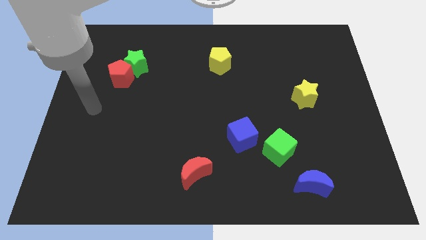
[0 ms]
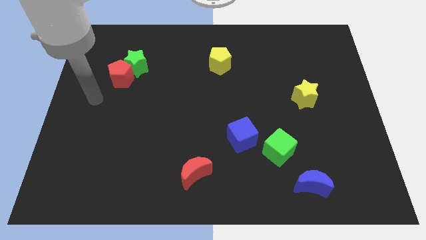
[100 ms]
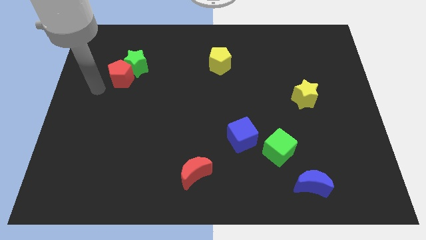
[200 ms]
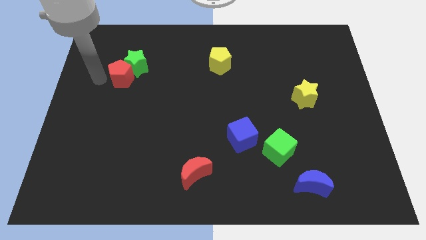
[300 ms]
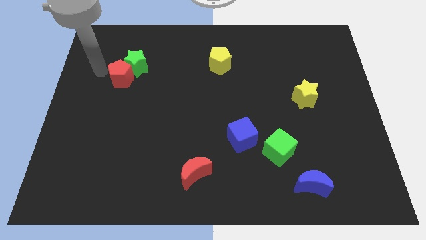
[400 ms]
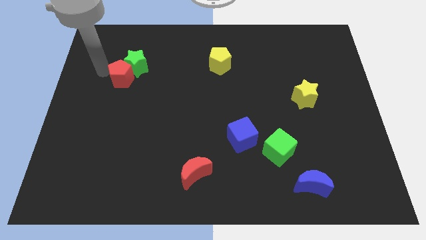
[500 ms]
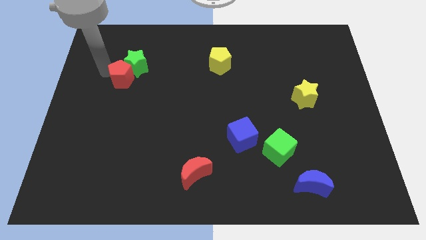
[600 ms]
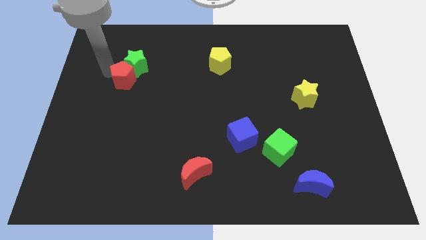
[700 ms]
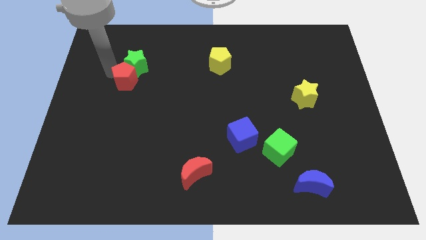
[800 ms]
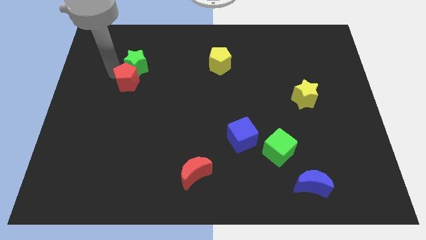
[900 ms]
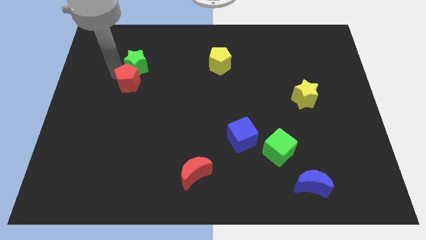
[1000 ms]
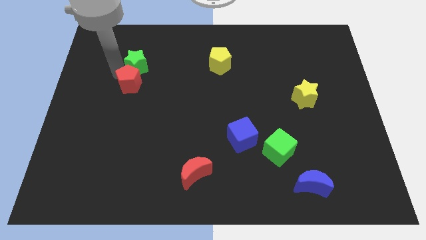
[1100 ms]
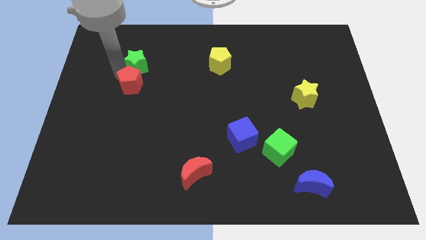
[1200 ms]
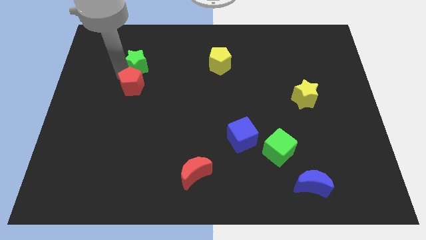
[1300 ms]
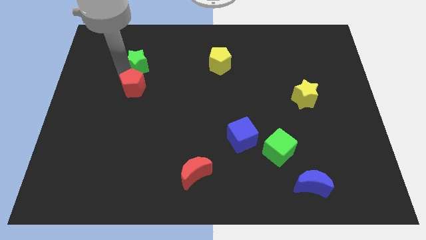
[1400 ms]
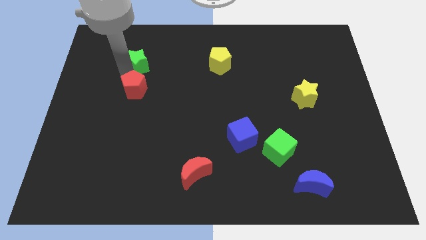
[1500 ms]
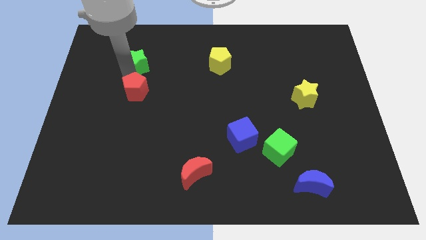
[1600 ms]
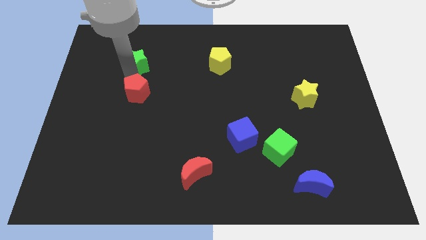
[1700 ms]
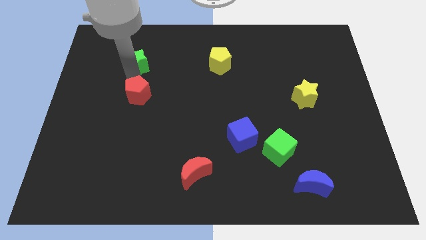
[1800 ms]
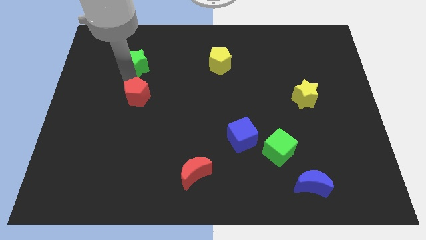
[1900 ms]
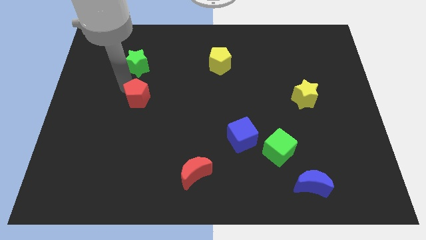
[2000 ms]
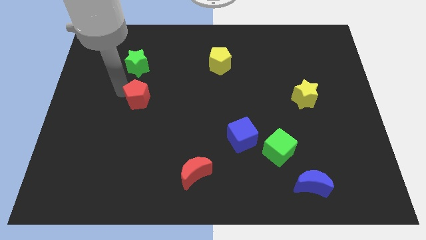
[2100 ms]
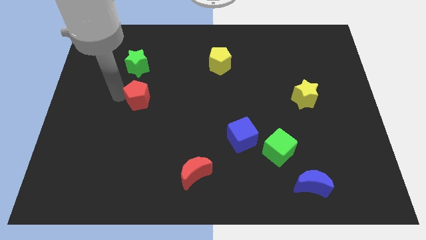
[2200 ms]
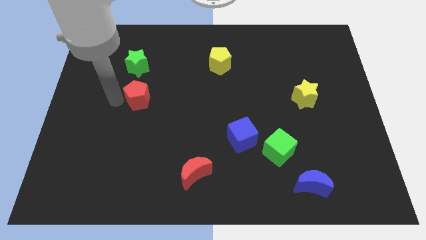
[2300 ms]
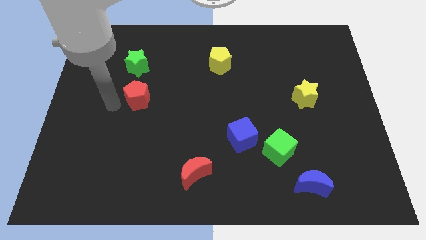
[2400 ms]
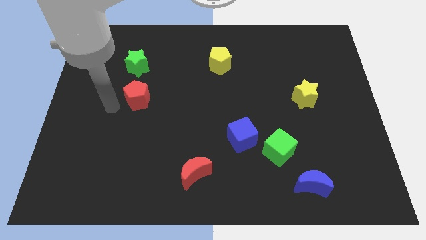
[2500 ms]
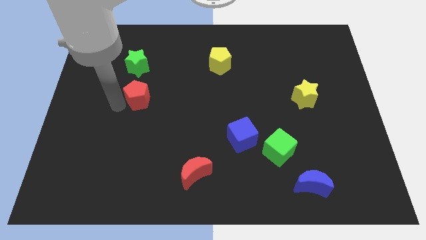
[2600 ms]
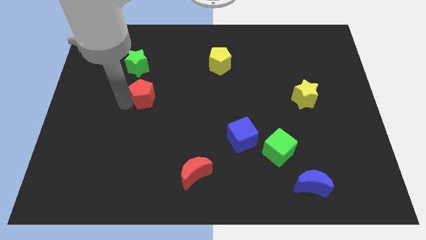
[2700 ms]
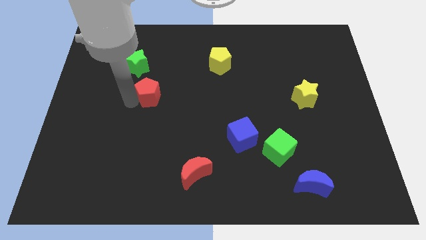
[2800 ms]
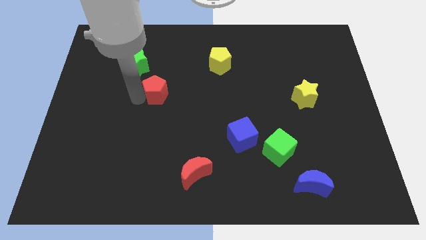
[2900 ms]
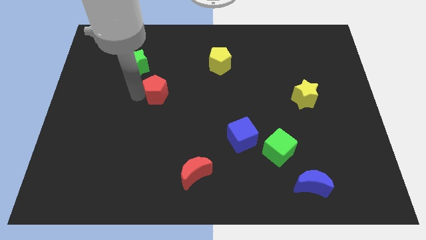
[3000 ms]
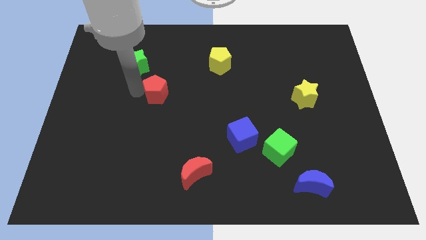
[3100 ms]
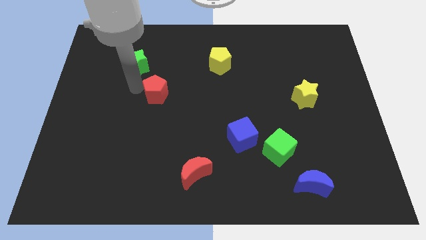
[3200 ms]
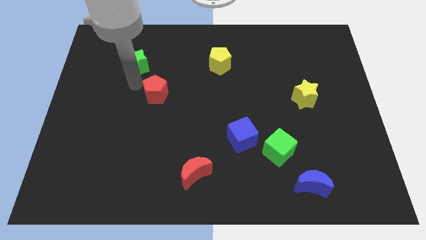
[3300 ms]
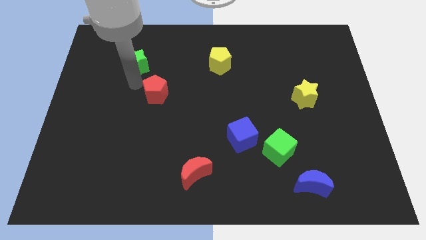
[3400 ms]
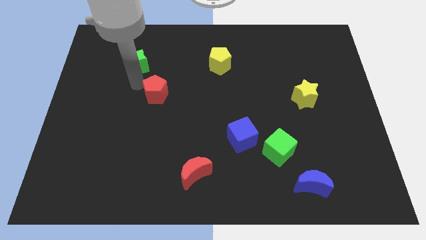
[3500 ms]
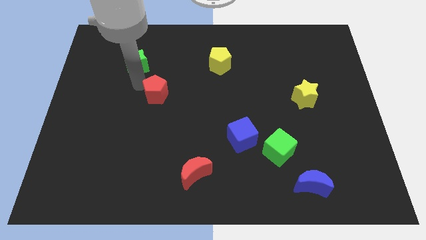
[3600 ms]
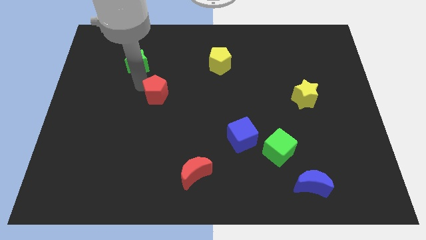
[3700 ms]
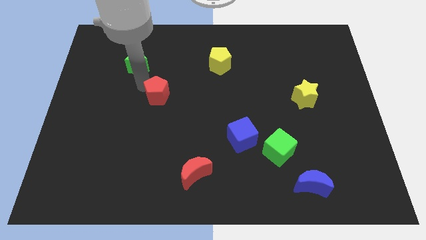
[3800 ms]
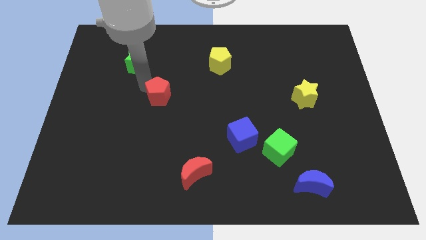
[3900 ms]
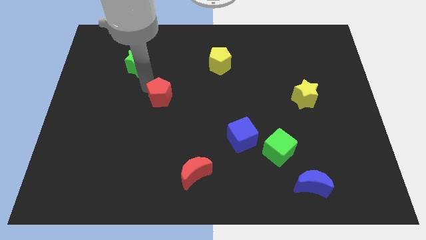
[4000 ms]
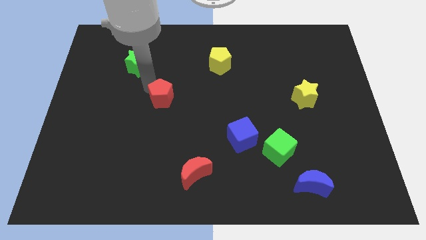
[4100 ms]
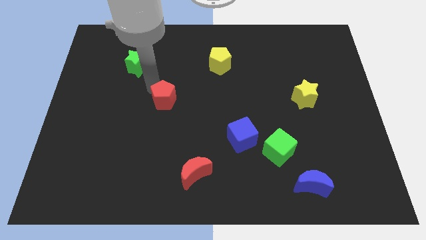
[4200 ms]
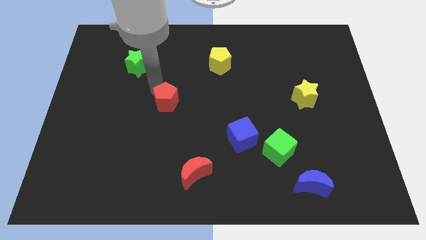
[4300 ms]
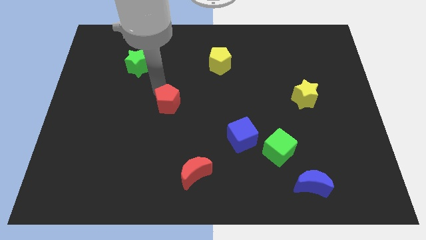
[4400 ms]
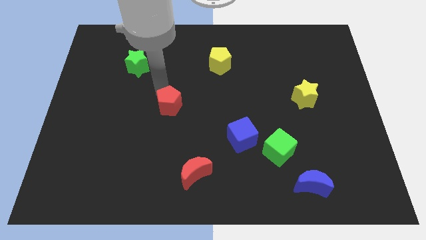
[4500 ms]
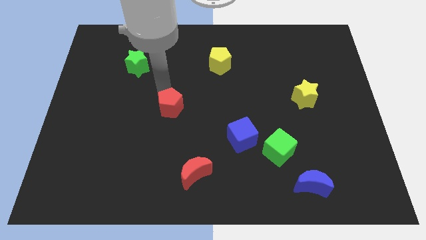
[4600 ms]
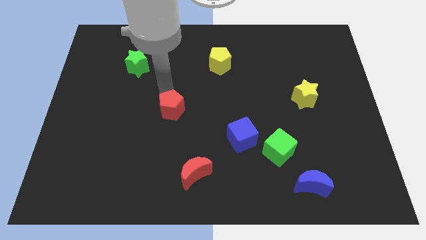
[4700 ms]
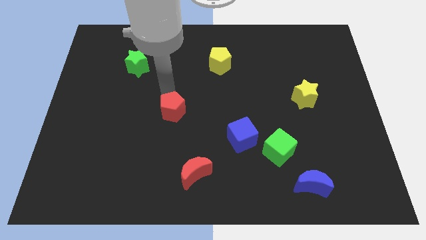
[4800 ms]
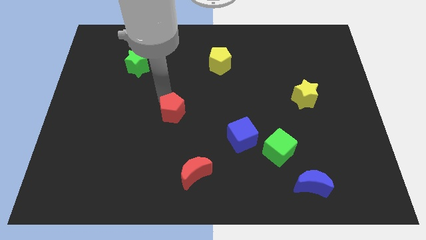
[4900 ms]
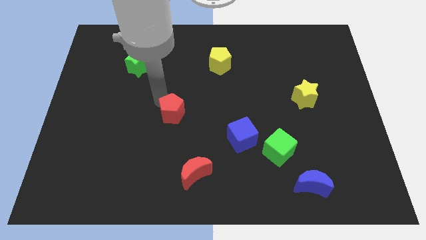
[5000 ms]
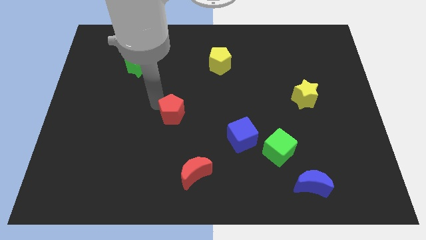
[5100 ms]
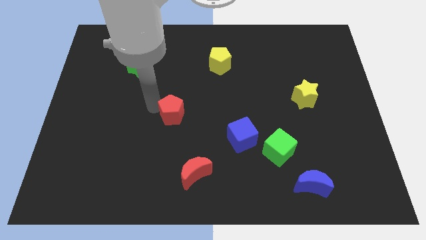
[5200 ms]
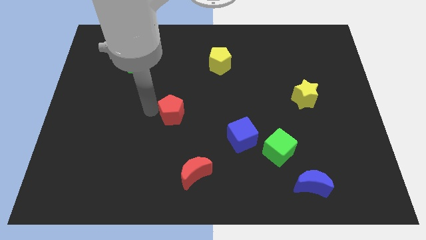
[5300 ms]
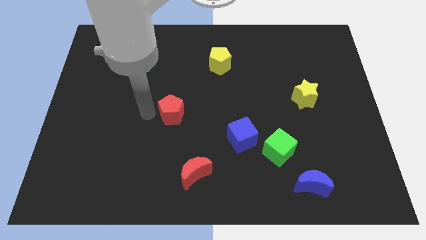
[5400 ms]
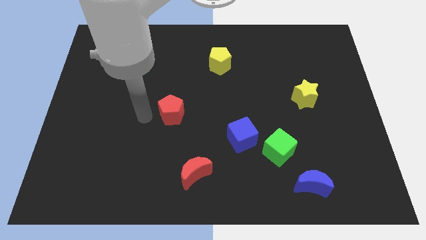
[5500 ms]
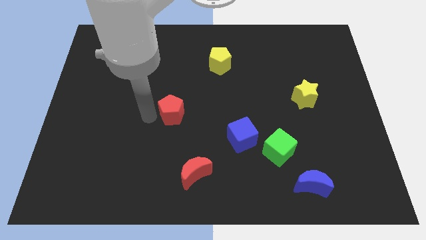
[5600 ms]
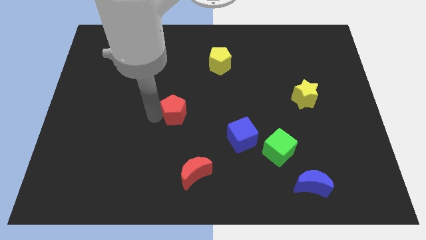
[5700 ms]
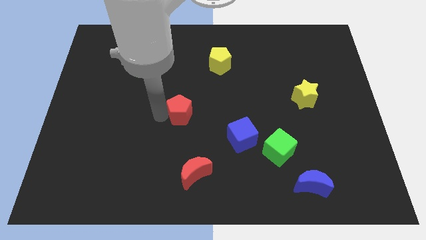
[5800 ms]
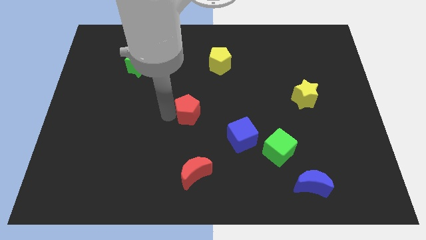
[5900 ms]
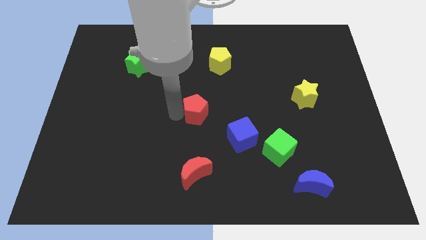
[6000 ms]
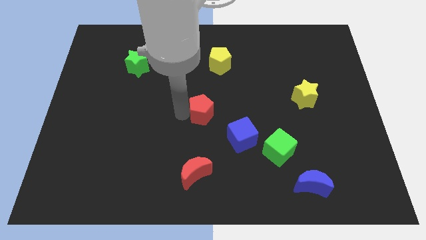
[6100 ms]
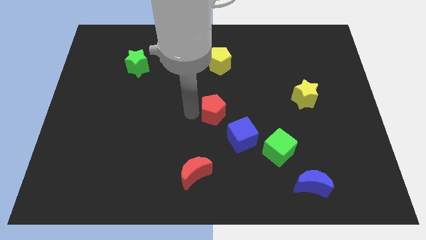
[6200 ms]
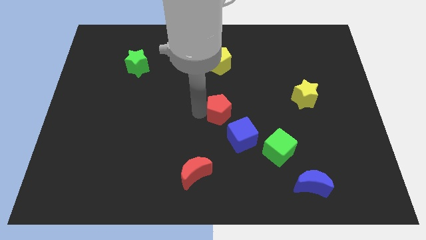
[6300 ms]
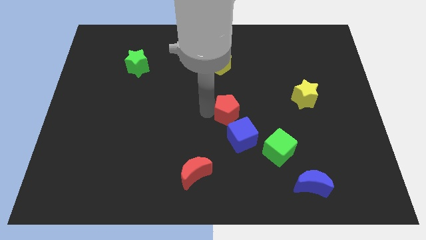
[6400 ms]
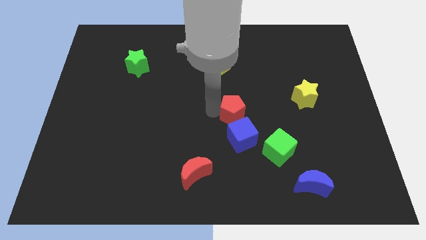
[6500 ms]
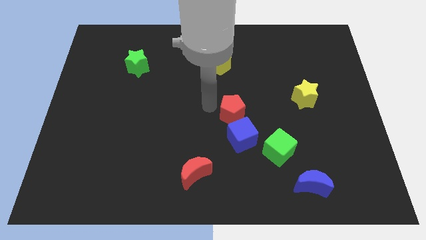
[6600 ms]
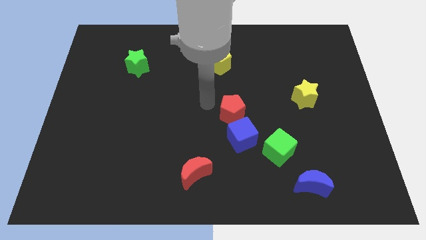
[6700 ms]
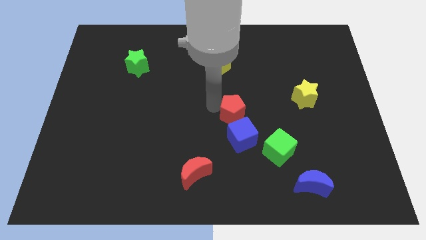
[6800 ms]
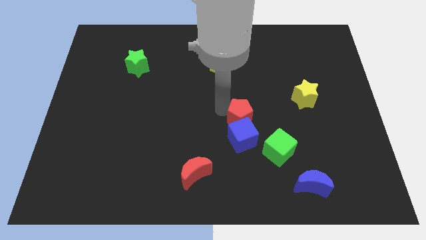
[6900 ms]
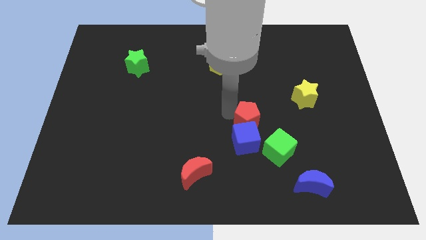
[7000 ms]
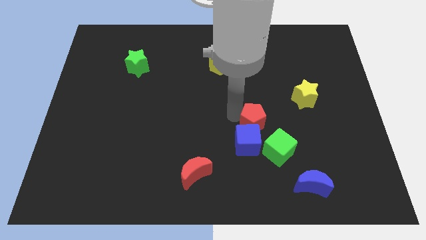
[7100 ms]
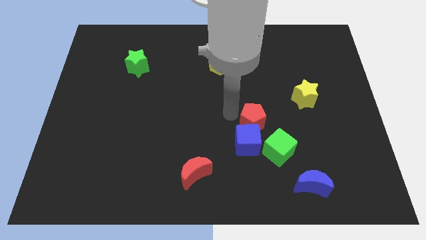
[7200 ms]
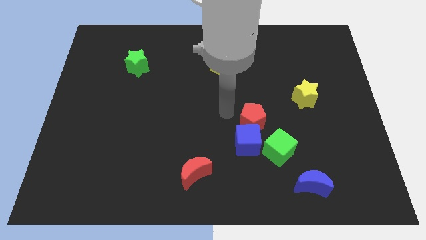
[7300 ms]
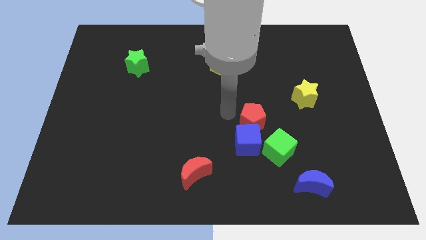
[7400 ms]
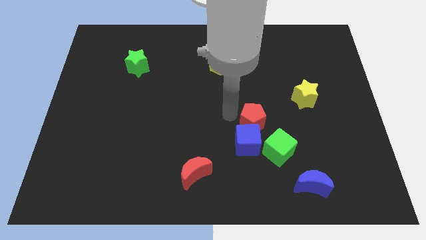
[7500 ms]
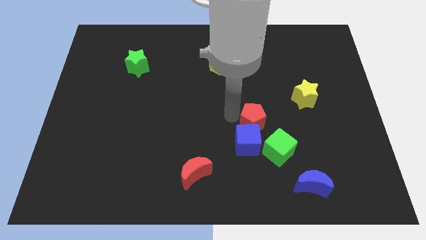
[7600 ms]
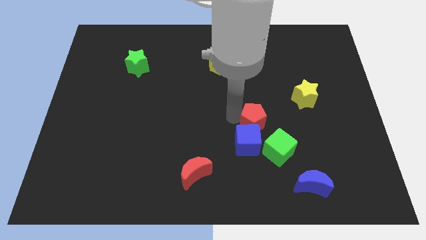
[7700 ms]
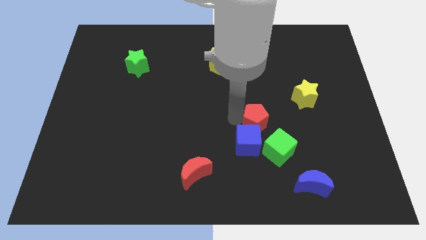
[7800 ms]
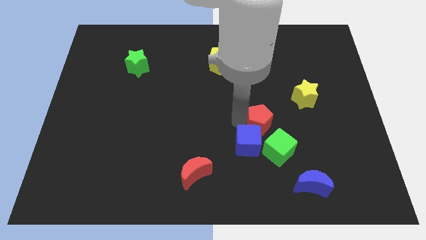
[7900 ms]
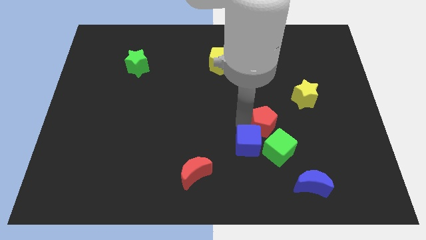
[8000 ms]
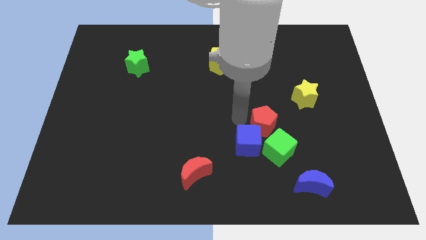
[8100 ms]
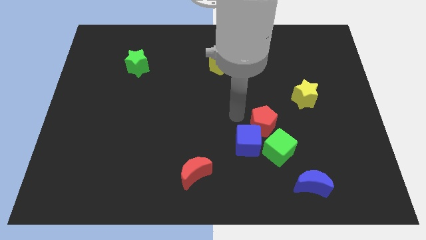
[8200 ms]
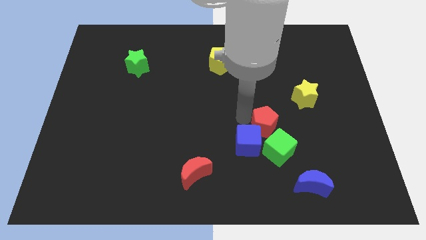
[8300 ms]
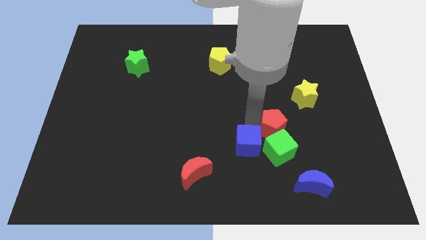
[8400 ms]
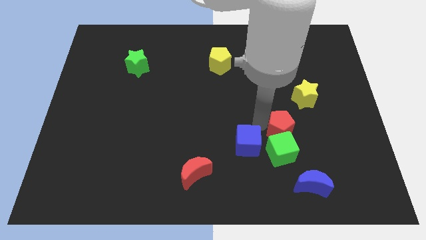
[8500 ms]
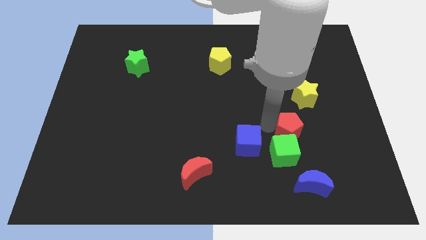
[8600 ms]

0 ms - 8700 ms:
push the red pentagon to the top side of the blue moon

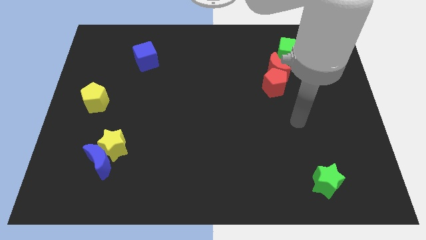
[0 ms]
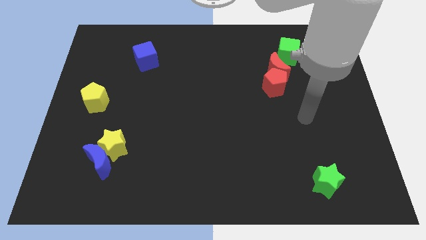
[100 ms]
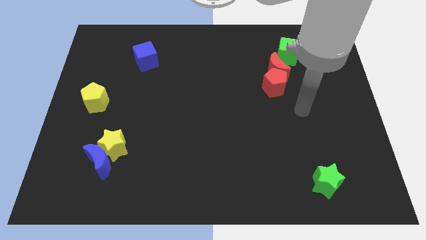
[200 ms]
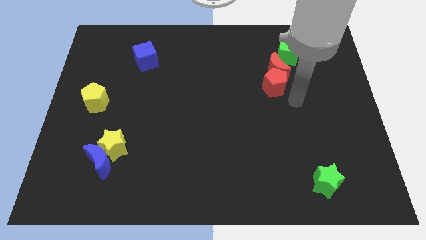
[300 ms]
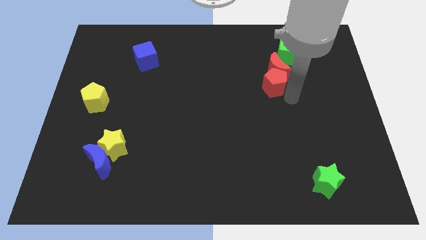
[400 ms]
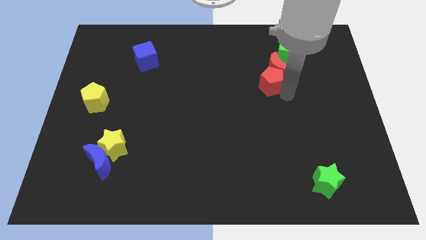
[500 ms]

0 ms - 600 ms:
put the red pentagon diagonally down and to the left of the green cube
